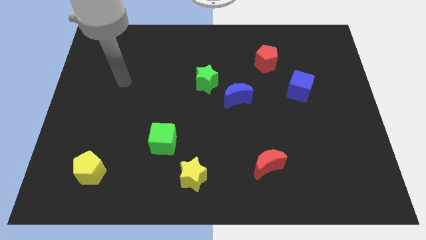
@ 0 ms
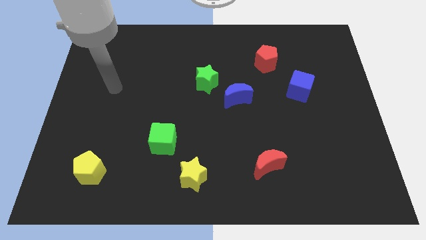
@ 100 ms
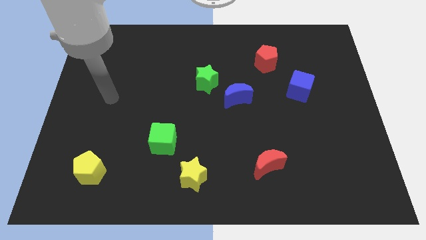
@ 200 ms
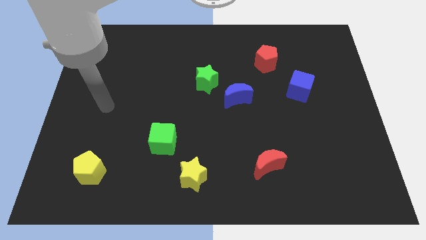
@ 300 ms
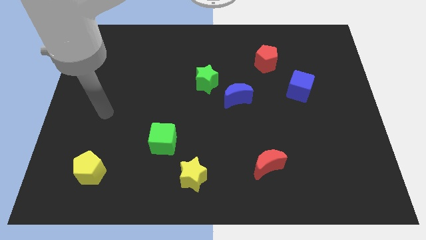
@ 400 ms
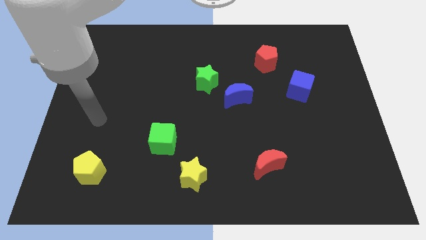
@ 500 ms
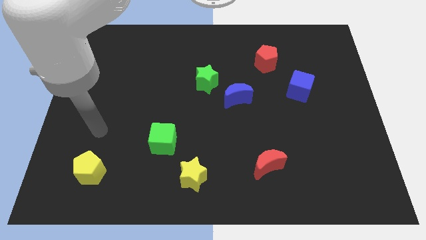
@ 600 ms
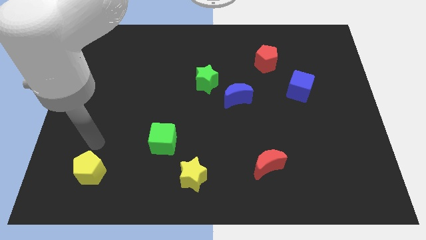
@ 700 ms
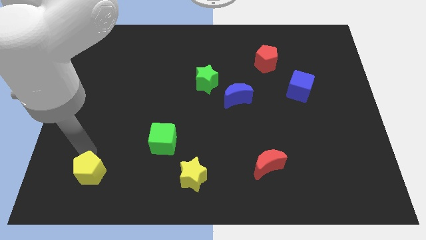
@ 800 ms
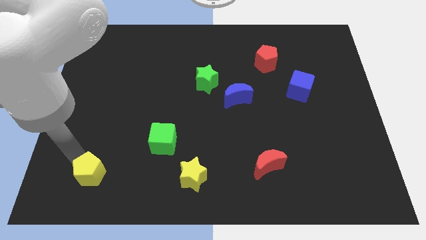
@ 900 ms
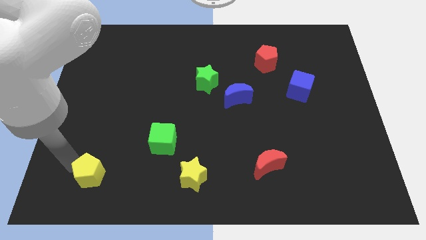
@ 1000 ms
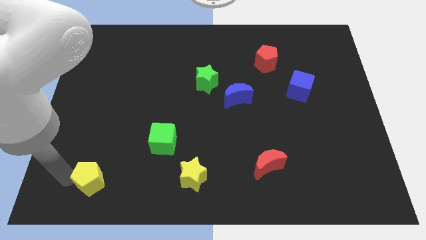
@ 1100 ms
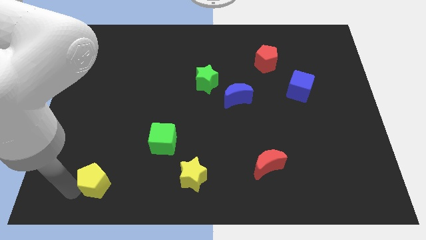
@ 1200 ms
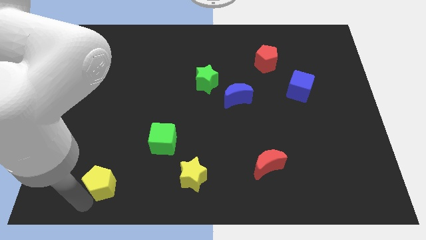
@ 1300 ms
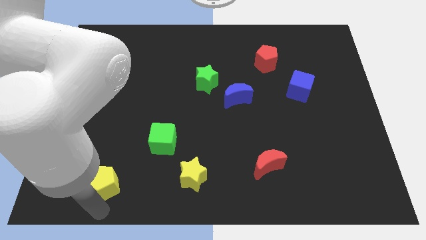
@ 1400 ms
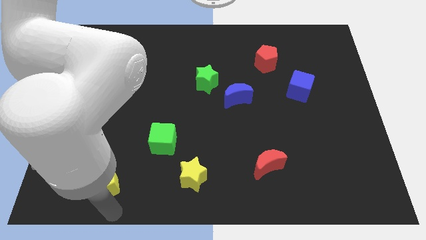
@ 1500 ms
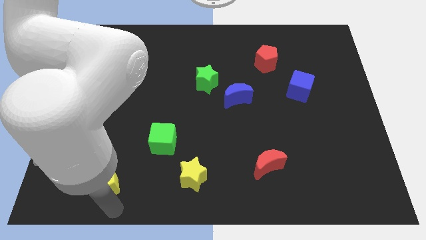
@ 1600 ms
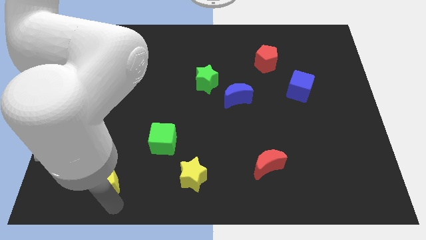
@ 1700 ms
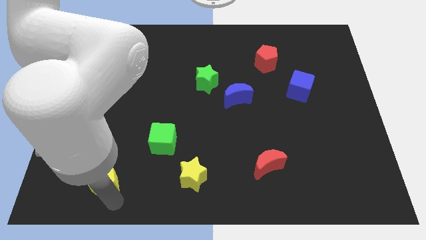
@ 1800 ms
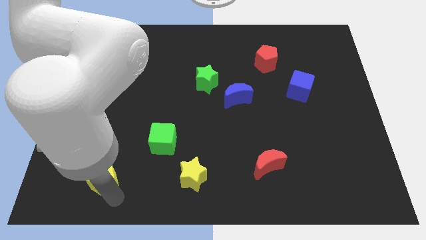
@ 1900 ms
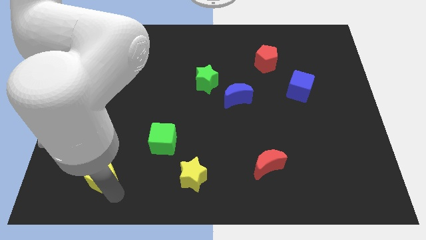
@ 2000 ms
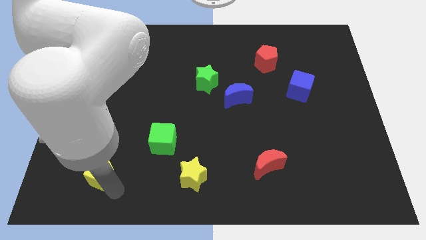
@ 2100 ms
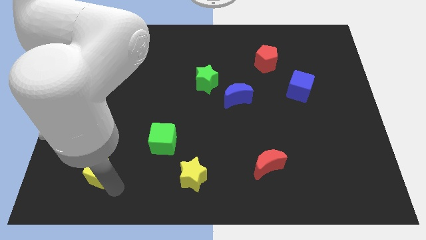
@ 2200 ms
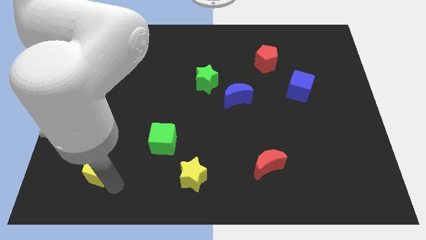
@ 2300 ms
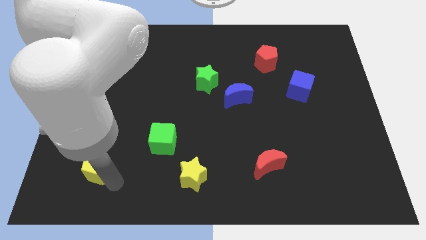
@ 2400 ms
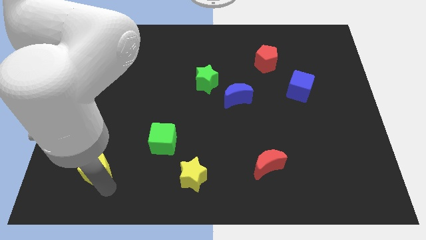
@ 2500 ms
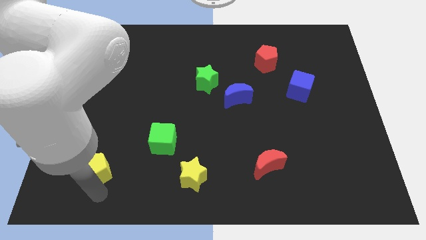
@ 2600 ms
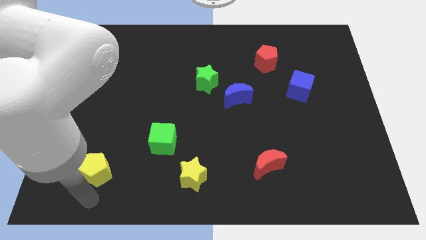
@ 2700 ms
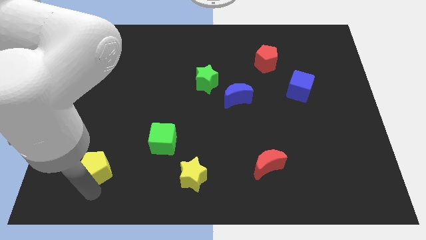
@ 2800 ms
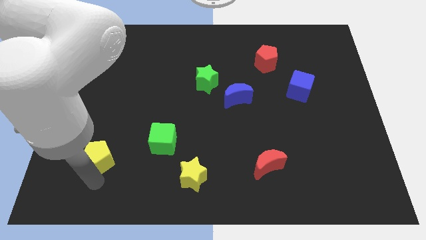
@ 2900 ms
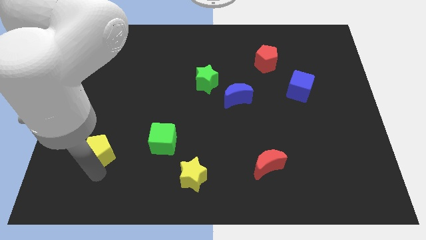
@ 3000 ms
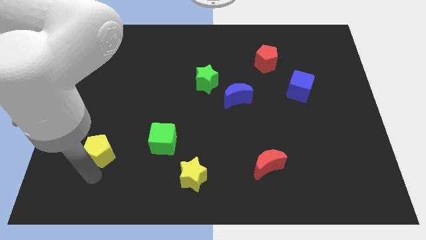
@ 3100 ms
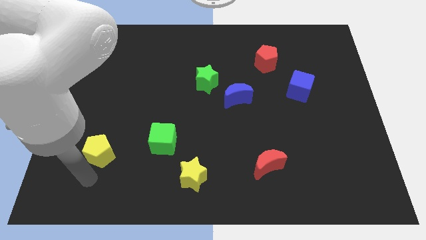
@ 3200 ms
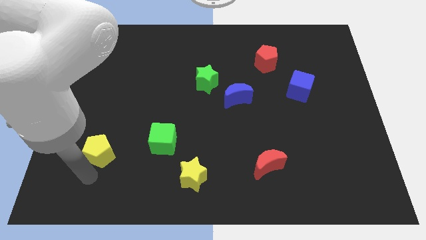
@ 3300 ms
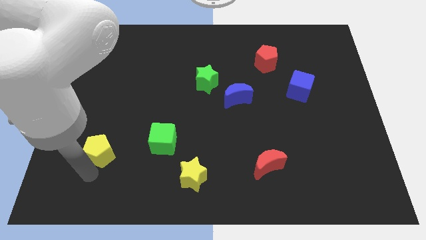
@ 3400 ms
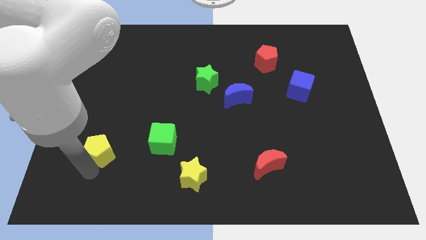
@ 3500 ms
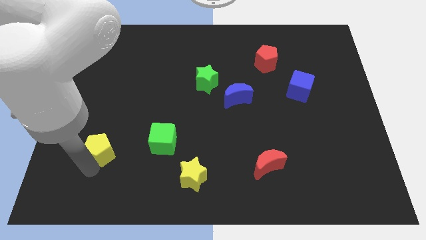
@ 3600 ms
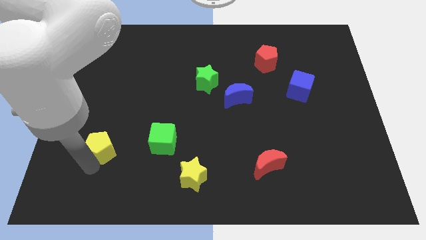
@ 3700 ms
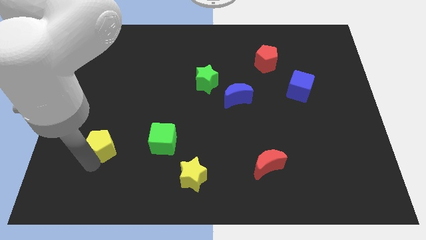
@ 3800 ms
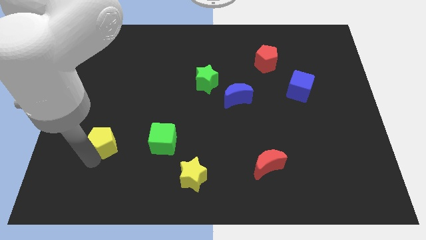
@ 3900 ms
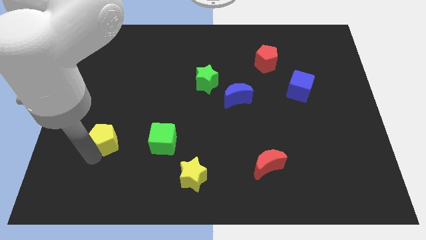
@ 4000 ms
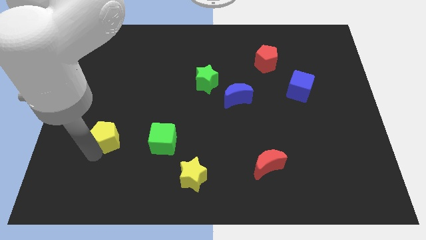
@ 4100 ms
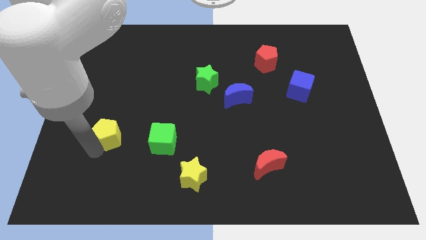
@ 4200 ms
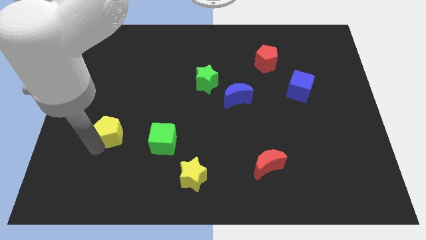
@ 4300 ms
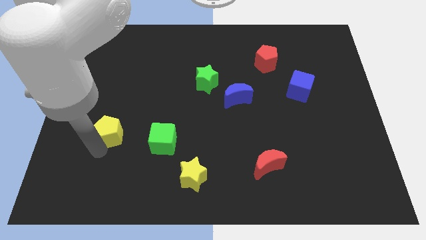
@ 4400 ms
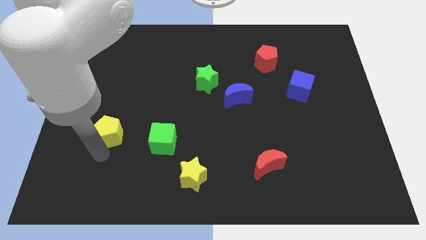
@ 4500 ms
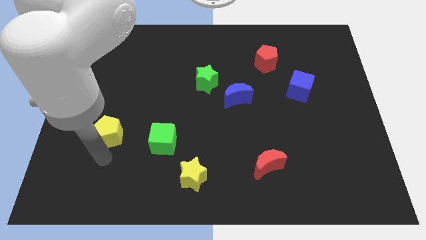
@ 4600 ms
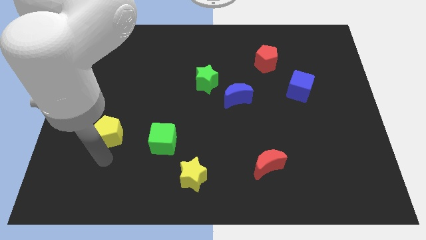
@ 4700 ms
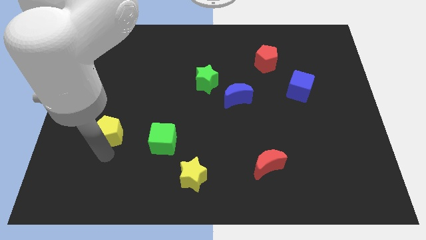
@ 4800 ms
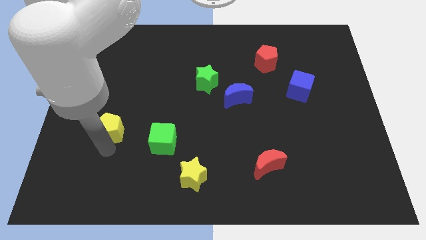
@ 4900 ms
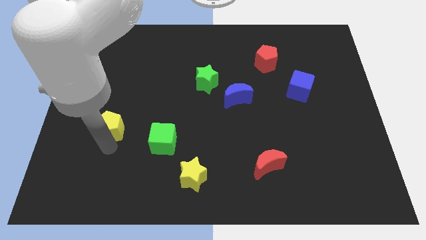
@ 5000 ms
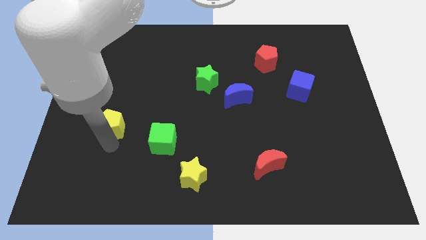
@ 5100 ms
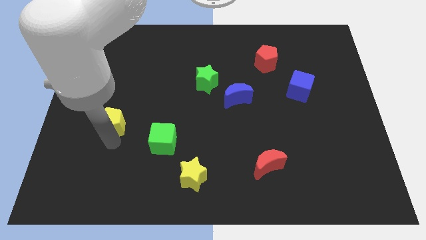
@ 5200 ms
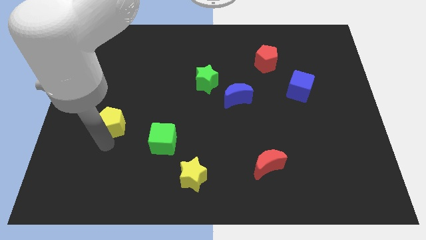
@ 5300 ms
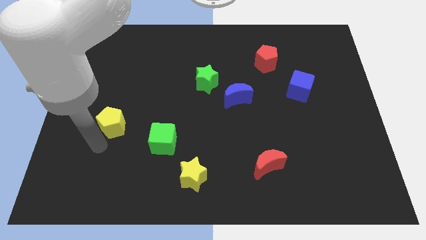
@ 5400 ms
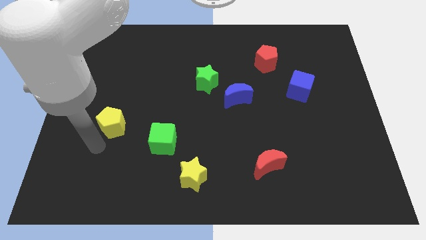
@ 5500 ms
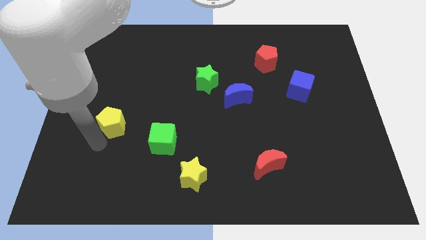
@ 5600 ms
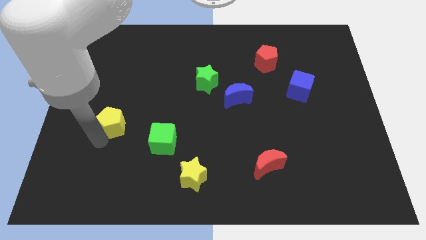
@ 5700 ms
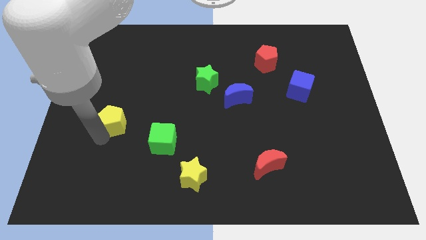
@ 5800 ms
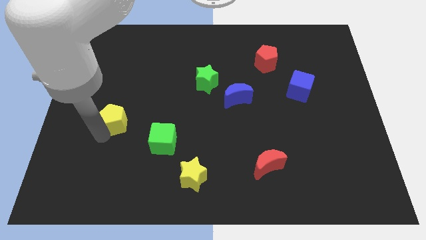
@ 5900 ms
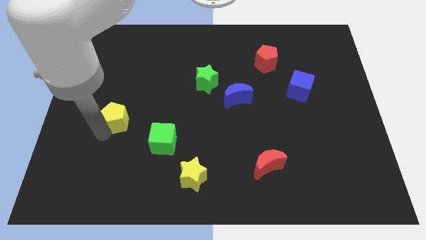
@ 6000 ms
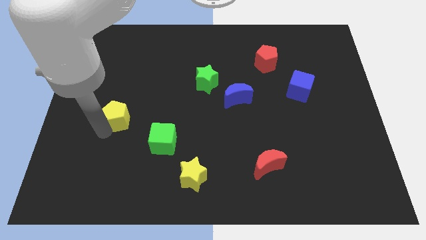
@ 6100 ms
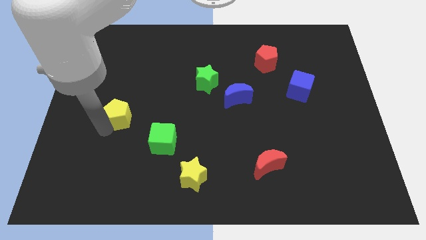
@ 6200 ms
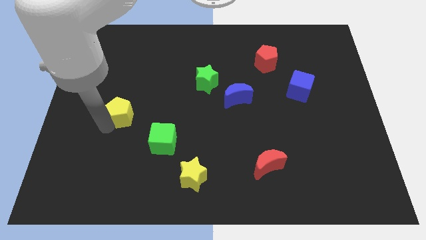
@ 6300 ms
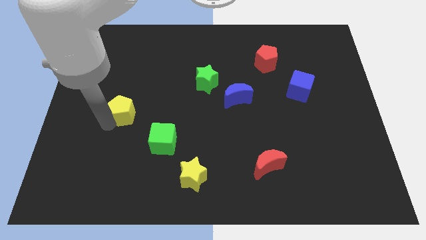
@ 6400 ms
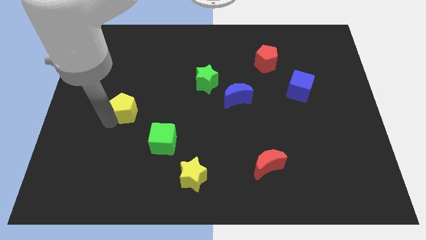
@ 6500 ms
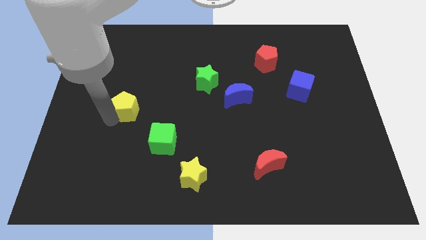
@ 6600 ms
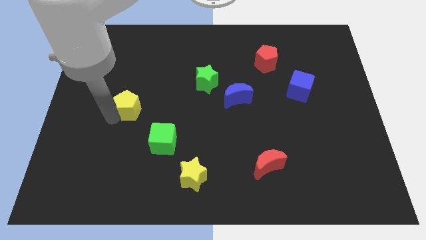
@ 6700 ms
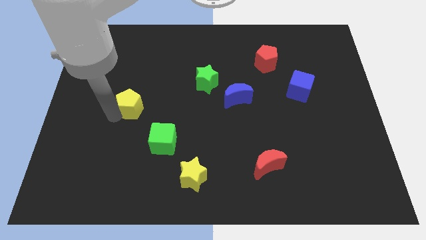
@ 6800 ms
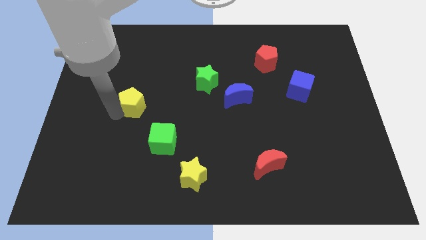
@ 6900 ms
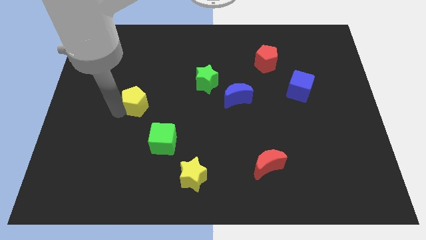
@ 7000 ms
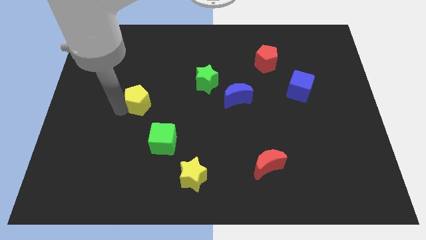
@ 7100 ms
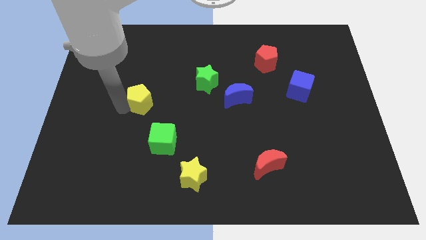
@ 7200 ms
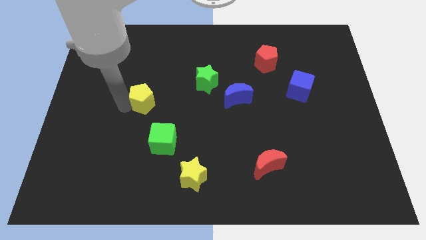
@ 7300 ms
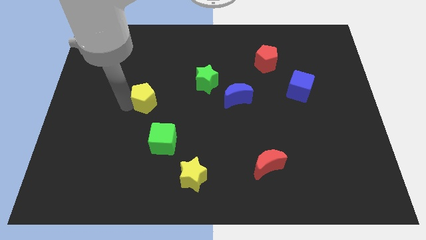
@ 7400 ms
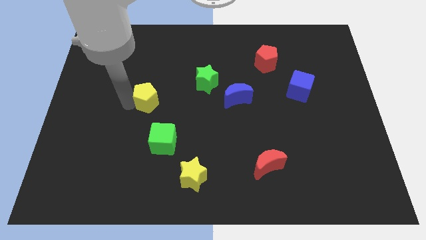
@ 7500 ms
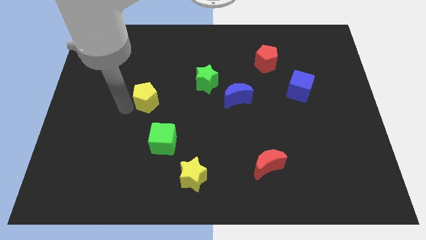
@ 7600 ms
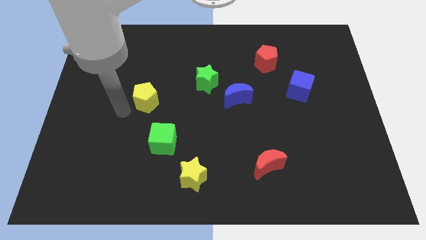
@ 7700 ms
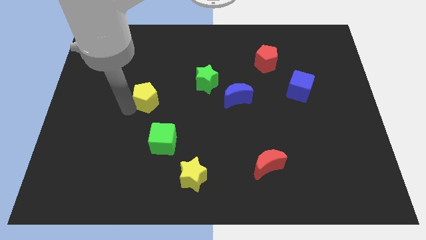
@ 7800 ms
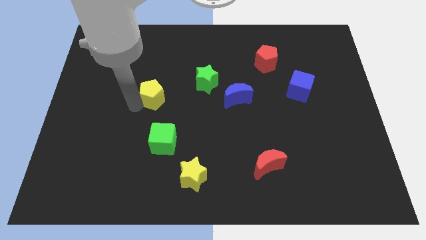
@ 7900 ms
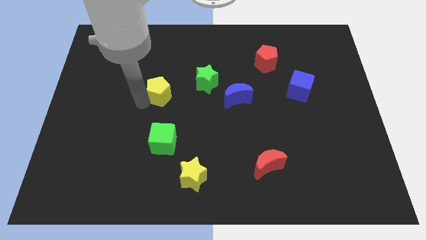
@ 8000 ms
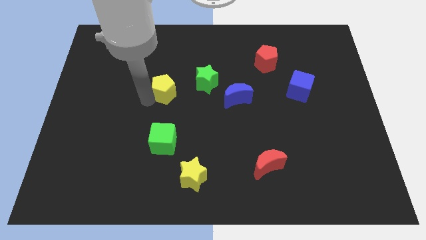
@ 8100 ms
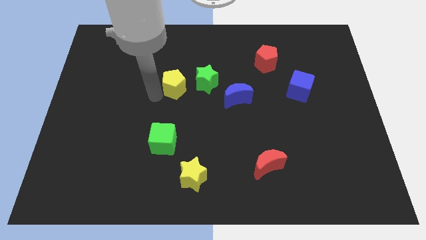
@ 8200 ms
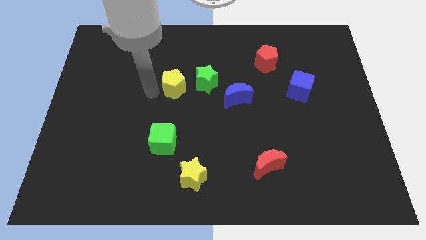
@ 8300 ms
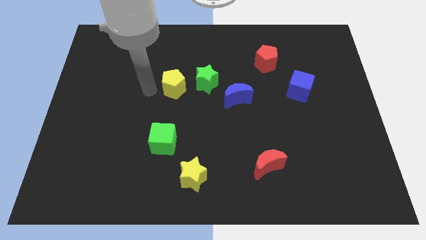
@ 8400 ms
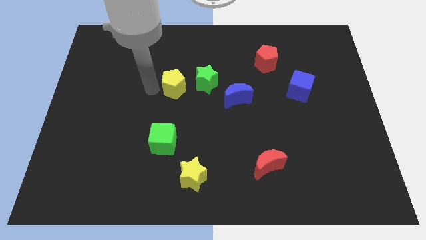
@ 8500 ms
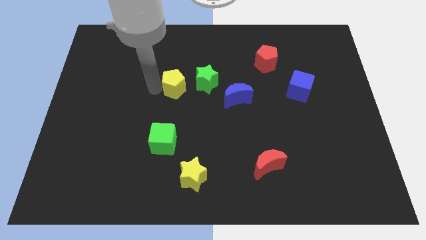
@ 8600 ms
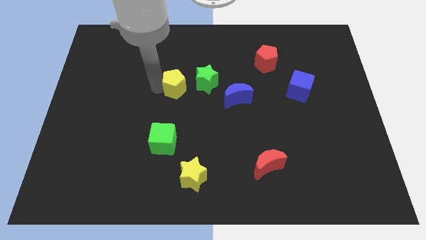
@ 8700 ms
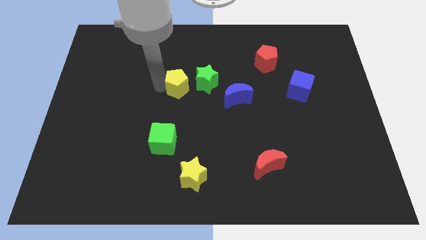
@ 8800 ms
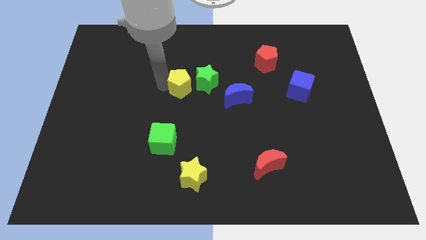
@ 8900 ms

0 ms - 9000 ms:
slide the yellow pentagon close to the green star
